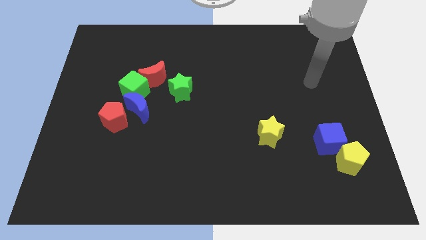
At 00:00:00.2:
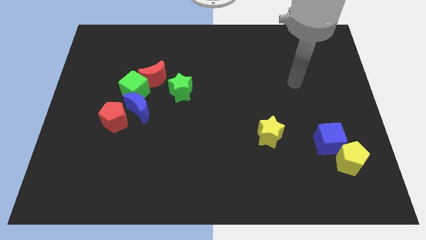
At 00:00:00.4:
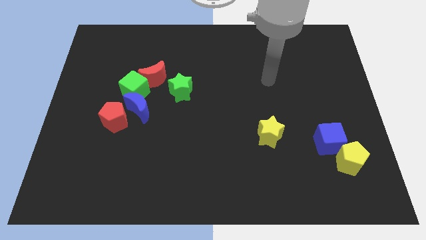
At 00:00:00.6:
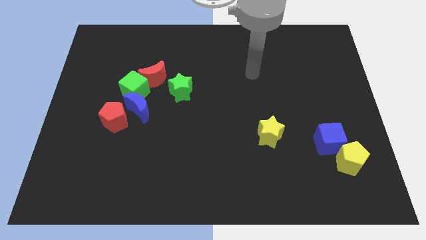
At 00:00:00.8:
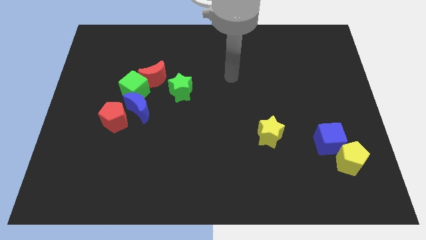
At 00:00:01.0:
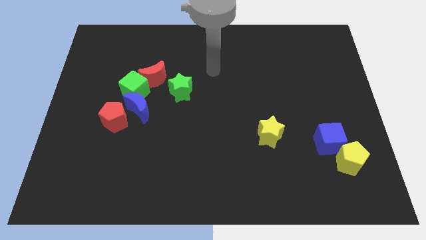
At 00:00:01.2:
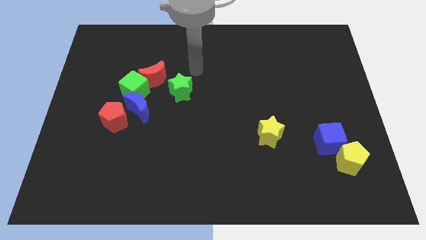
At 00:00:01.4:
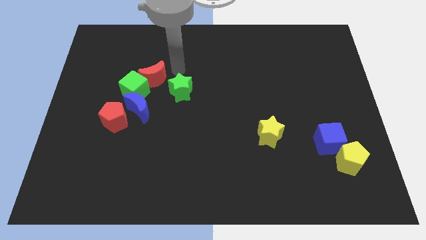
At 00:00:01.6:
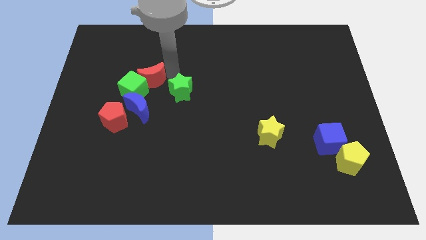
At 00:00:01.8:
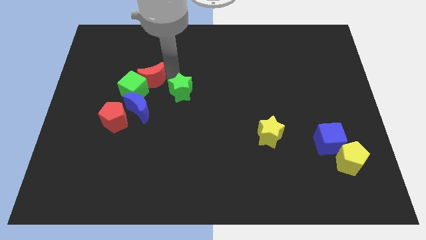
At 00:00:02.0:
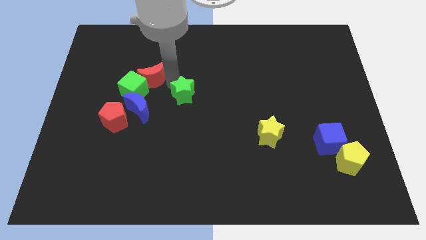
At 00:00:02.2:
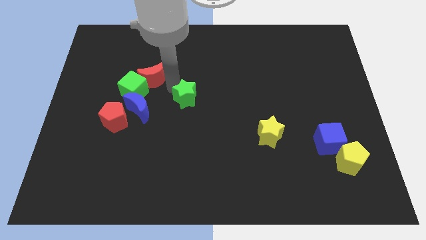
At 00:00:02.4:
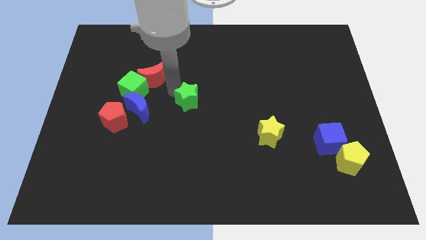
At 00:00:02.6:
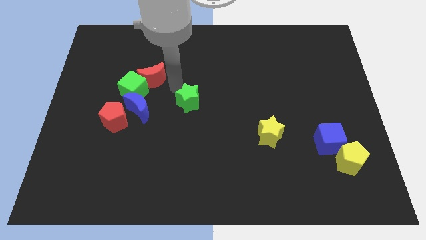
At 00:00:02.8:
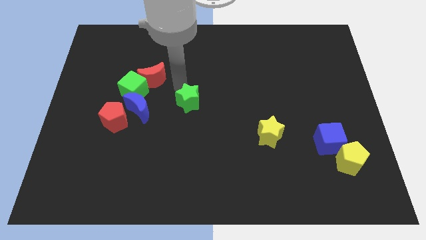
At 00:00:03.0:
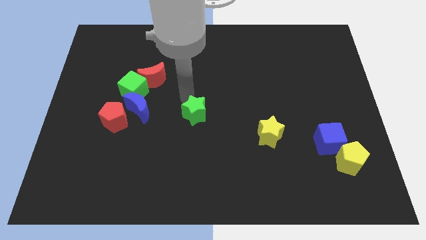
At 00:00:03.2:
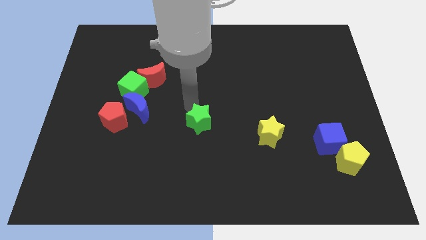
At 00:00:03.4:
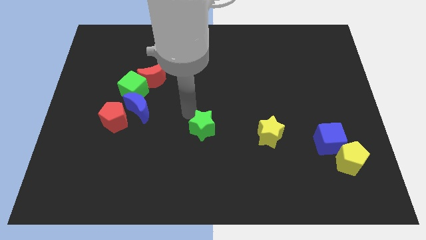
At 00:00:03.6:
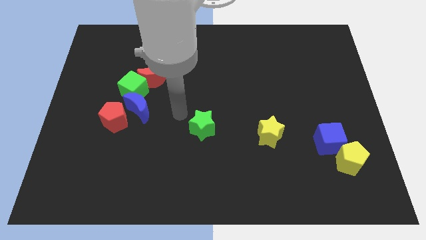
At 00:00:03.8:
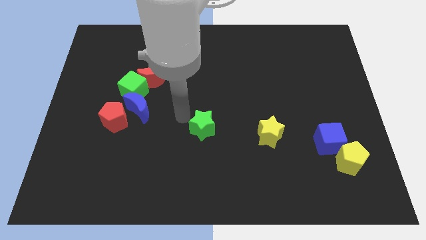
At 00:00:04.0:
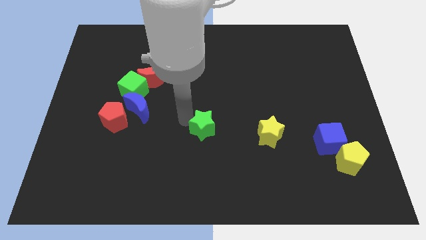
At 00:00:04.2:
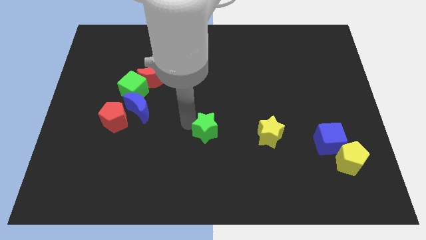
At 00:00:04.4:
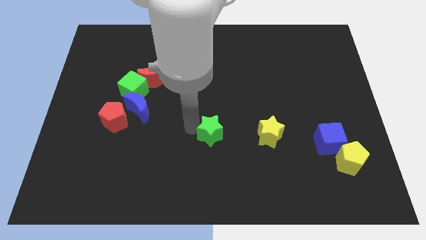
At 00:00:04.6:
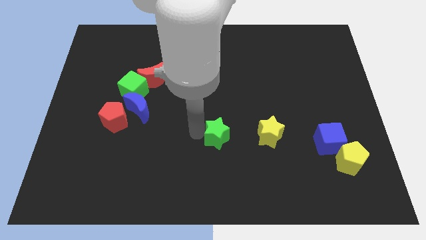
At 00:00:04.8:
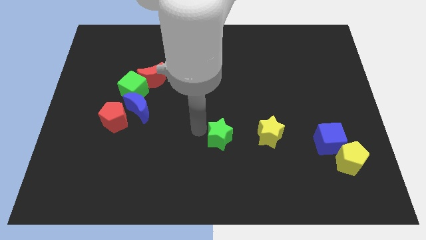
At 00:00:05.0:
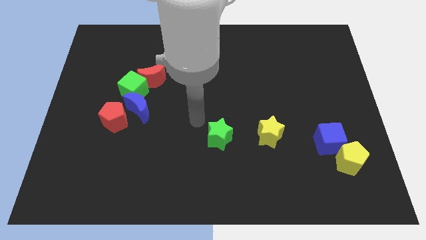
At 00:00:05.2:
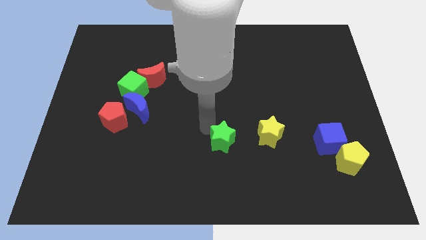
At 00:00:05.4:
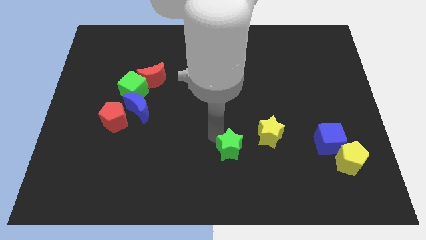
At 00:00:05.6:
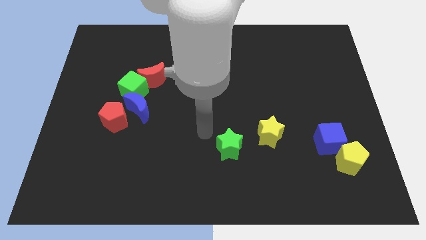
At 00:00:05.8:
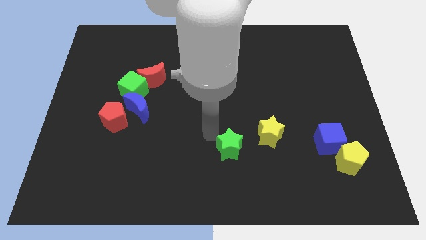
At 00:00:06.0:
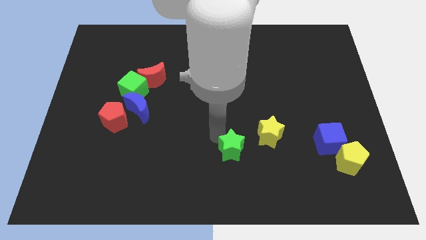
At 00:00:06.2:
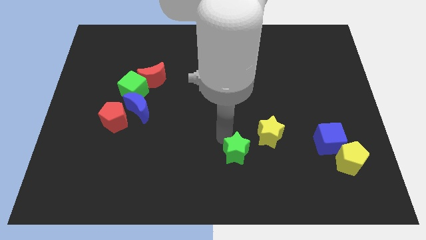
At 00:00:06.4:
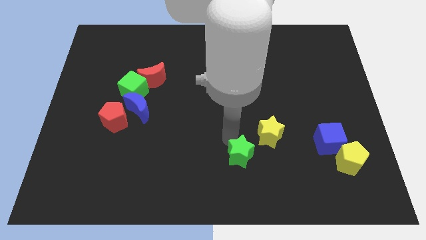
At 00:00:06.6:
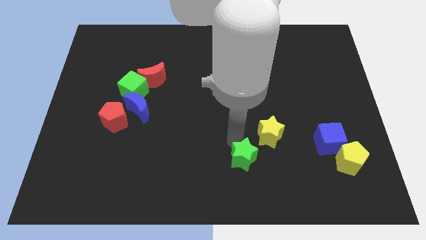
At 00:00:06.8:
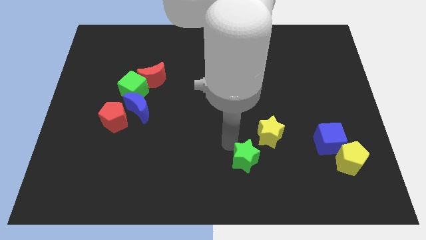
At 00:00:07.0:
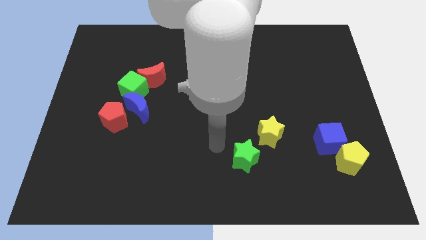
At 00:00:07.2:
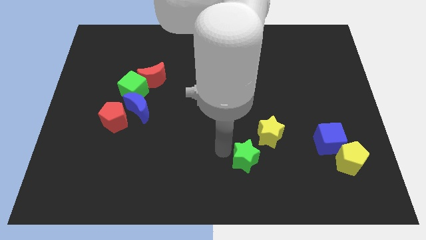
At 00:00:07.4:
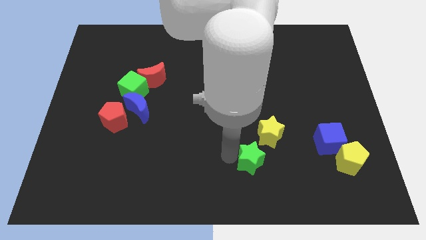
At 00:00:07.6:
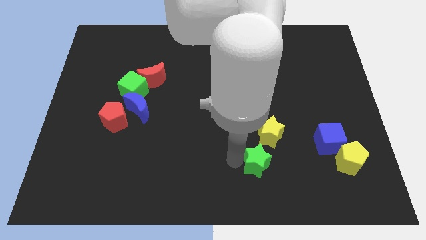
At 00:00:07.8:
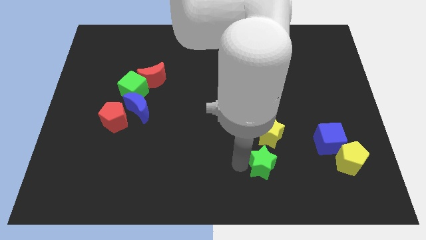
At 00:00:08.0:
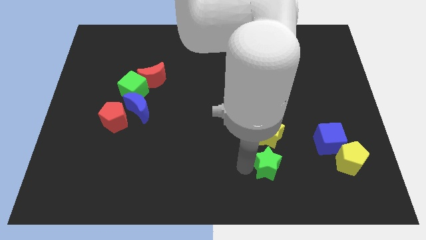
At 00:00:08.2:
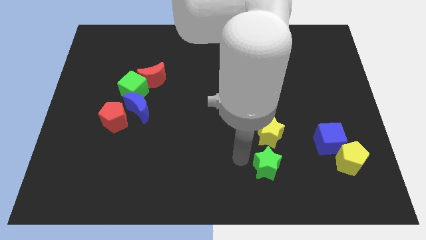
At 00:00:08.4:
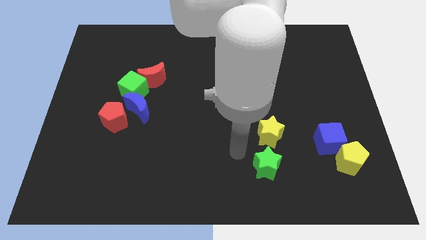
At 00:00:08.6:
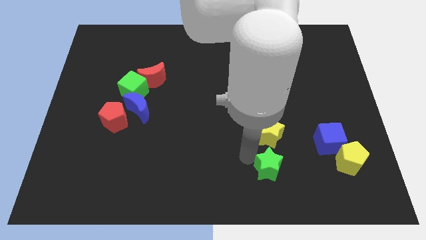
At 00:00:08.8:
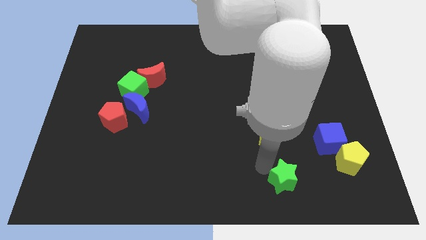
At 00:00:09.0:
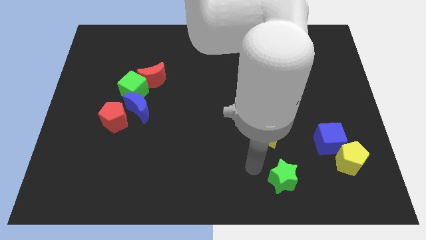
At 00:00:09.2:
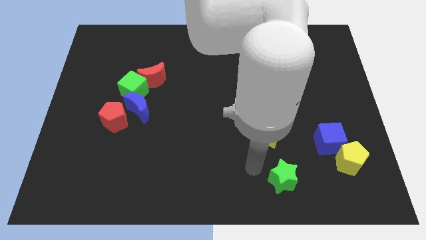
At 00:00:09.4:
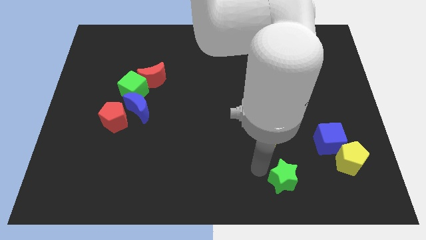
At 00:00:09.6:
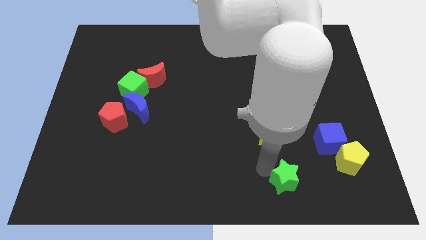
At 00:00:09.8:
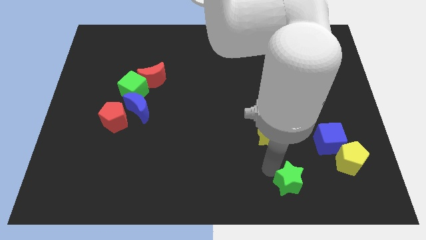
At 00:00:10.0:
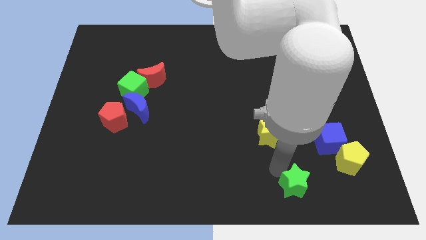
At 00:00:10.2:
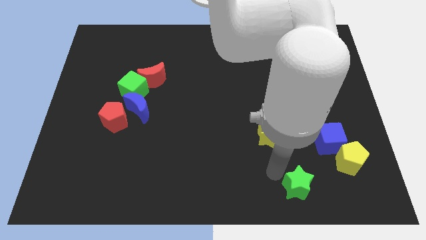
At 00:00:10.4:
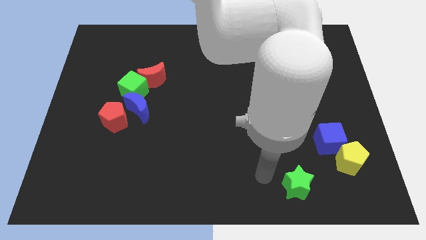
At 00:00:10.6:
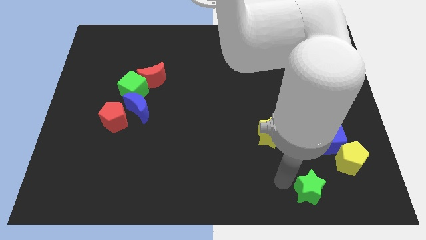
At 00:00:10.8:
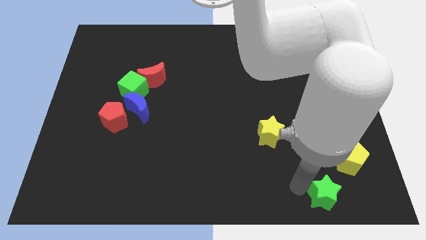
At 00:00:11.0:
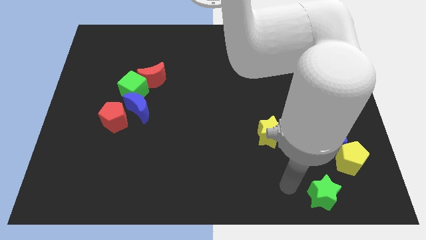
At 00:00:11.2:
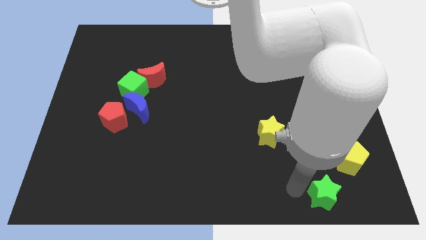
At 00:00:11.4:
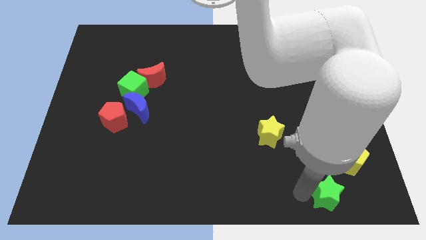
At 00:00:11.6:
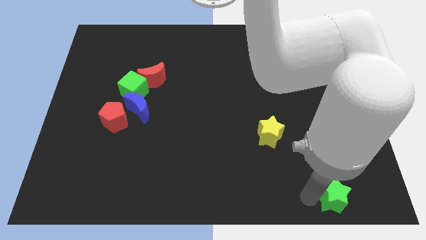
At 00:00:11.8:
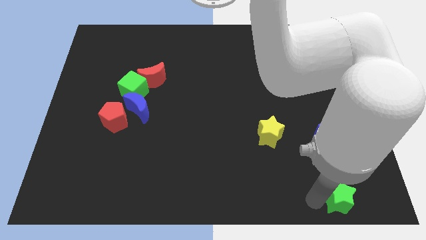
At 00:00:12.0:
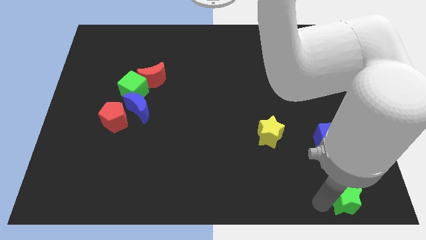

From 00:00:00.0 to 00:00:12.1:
put the green star to the lower right corner
